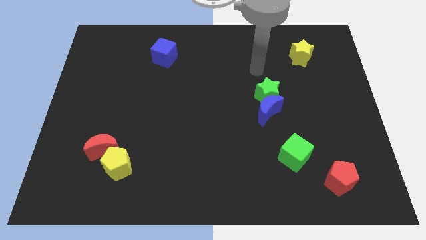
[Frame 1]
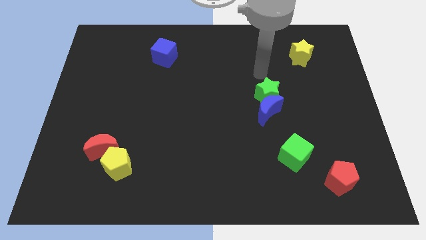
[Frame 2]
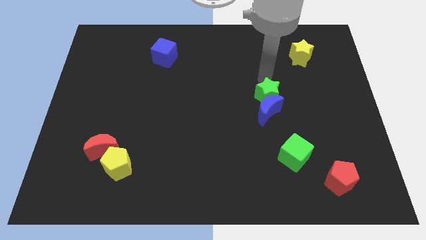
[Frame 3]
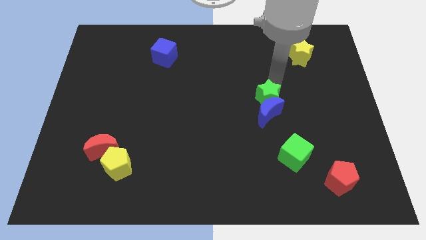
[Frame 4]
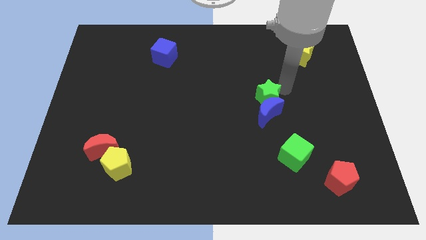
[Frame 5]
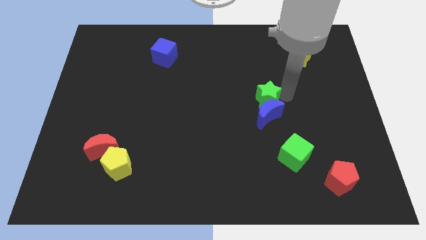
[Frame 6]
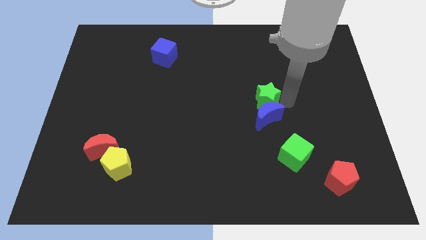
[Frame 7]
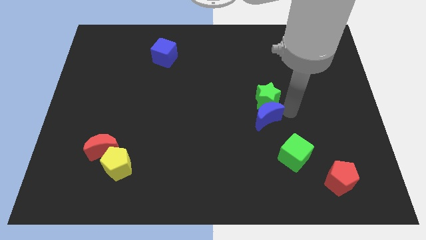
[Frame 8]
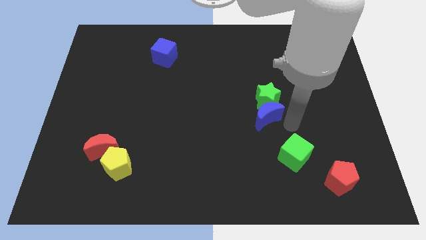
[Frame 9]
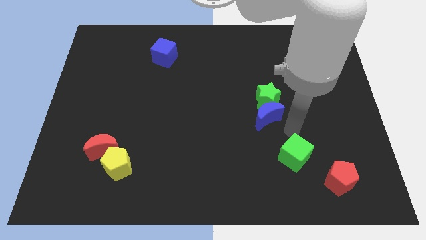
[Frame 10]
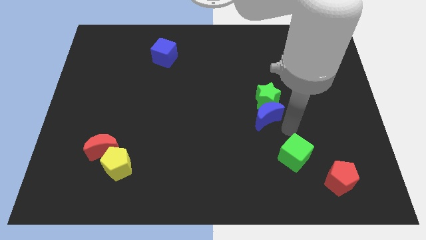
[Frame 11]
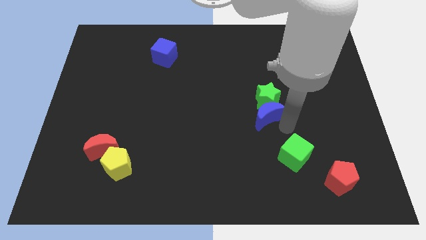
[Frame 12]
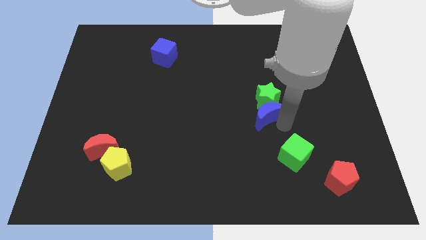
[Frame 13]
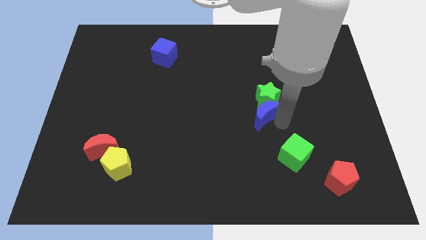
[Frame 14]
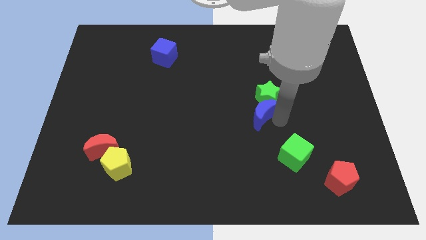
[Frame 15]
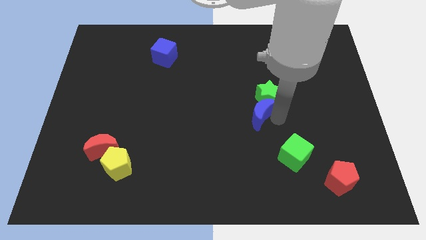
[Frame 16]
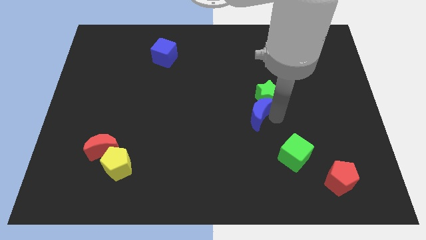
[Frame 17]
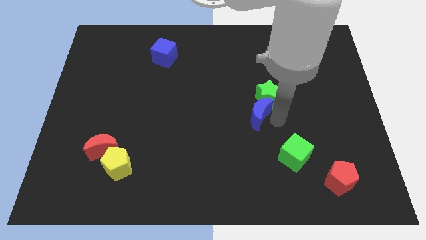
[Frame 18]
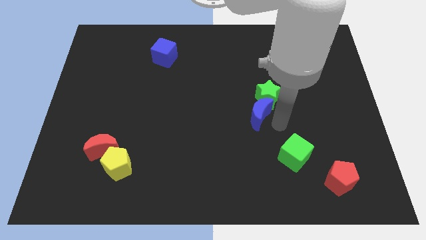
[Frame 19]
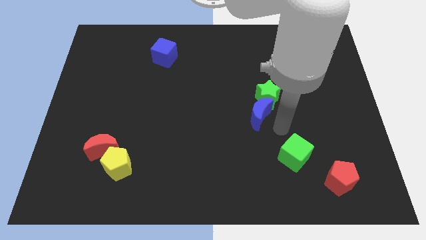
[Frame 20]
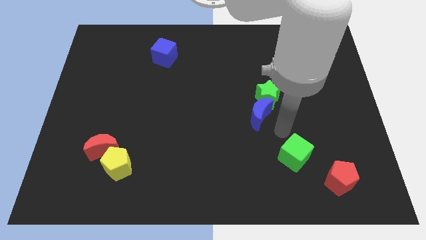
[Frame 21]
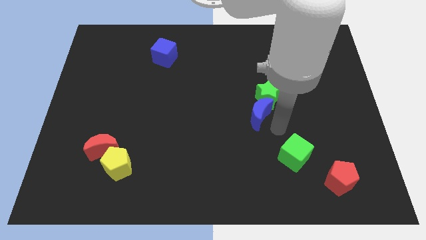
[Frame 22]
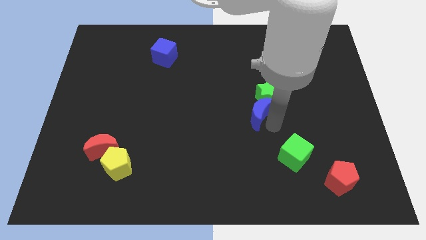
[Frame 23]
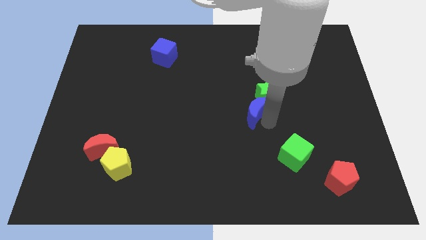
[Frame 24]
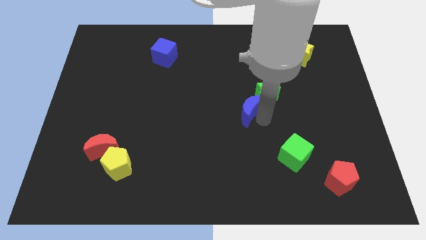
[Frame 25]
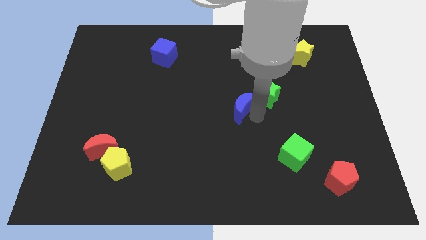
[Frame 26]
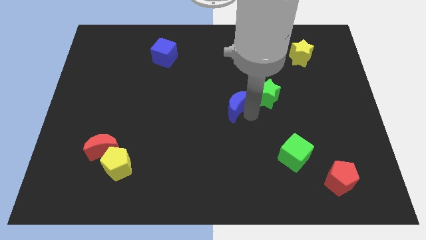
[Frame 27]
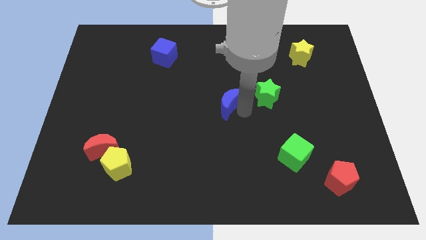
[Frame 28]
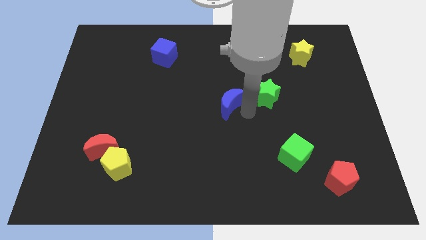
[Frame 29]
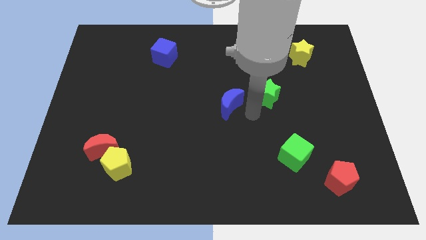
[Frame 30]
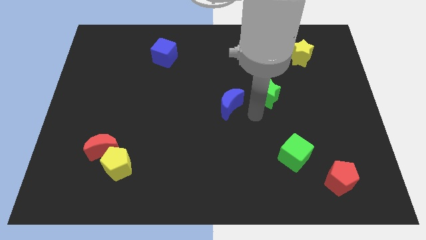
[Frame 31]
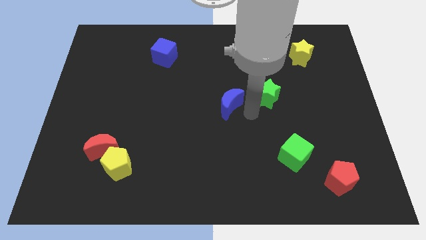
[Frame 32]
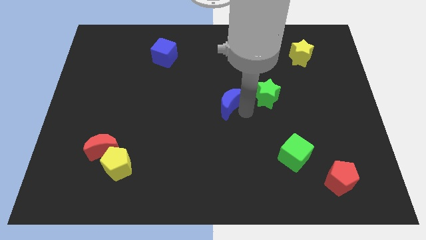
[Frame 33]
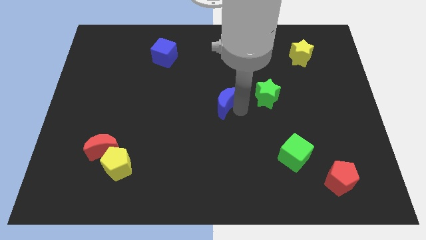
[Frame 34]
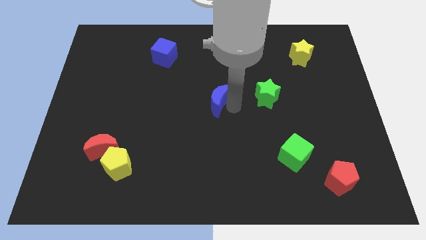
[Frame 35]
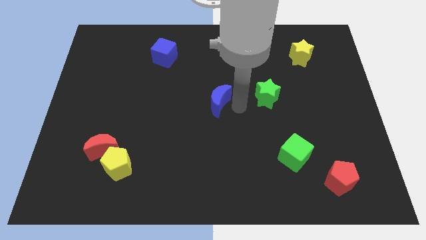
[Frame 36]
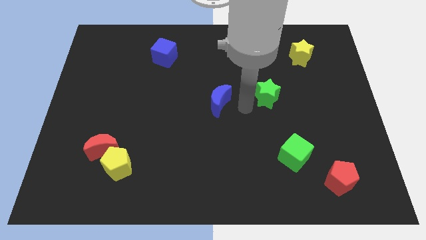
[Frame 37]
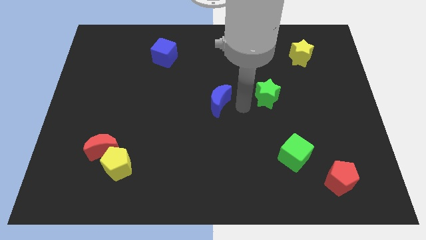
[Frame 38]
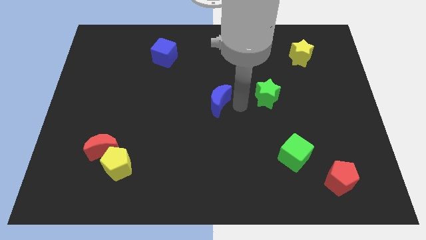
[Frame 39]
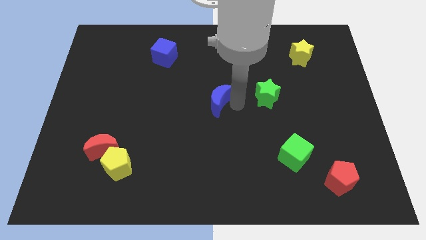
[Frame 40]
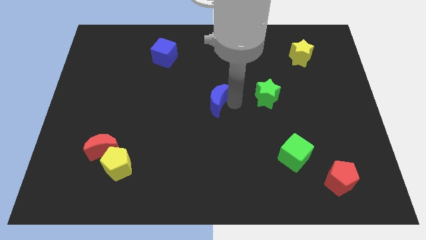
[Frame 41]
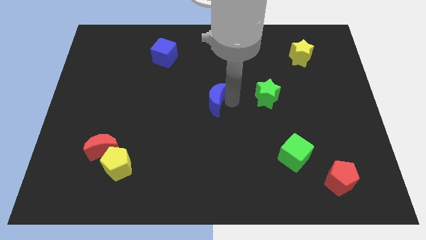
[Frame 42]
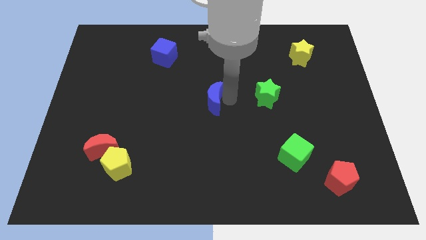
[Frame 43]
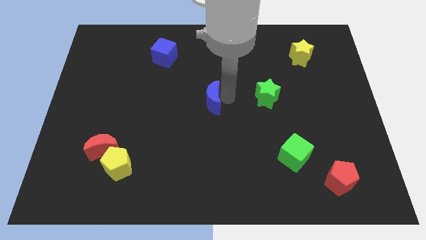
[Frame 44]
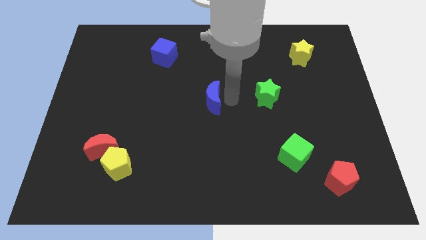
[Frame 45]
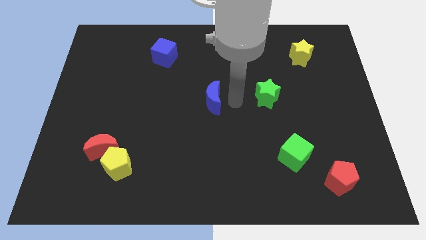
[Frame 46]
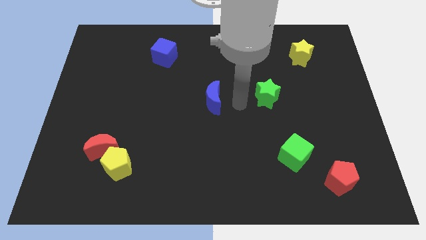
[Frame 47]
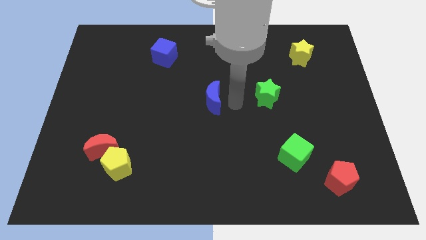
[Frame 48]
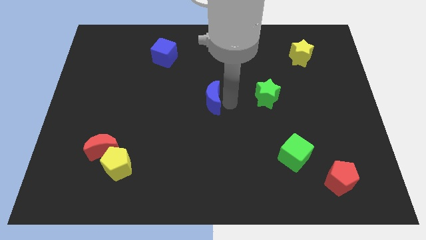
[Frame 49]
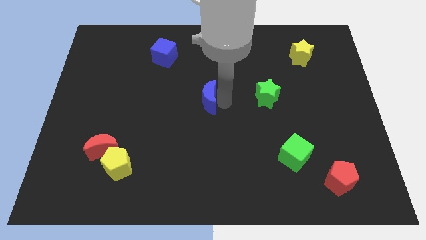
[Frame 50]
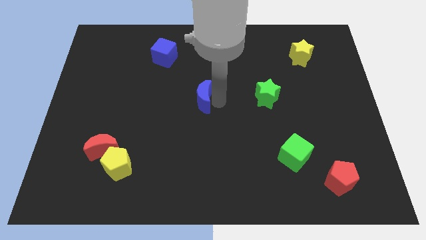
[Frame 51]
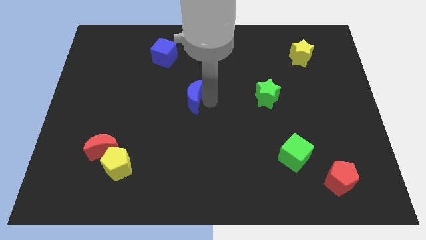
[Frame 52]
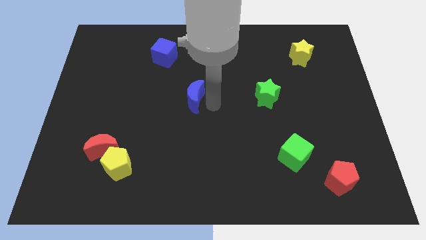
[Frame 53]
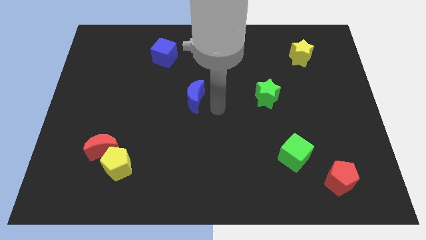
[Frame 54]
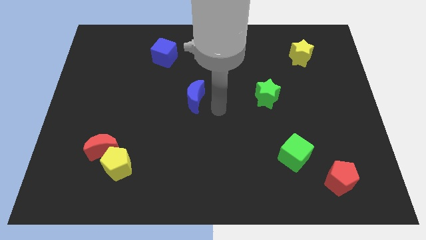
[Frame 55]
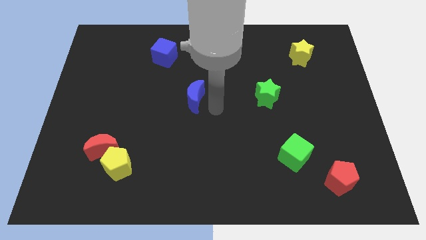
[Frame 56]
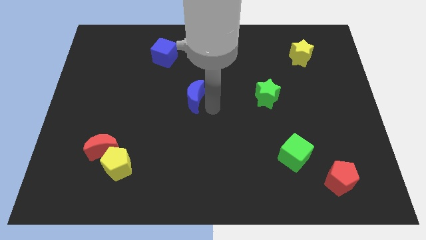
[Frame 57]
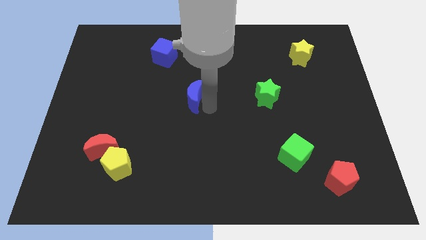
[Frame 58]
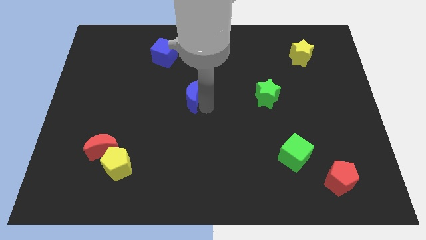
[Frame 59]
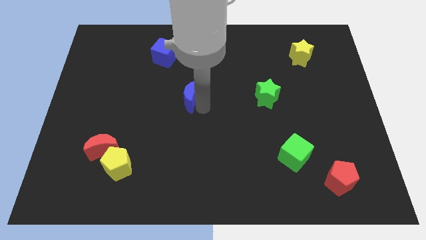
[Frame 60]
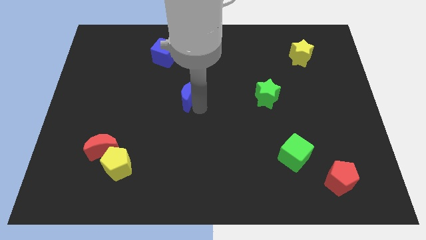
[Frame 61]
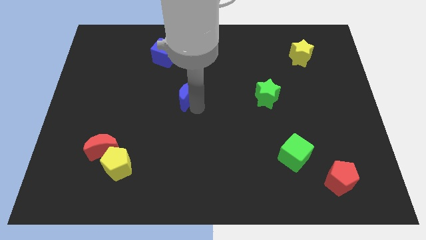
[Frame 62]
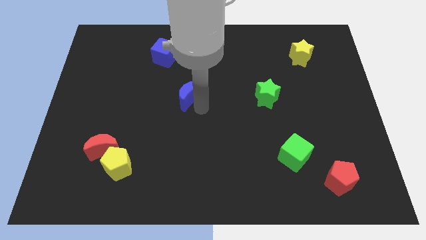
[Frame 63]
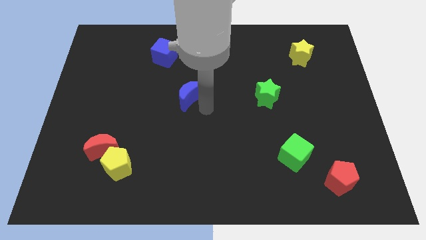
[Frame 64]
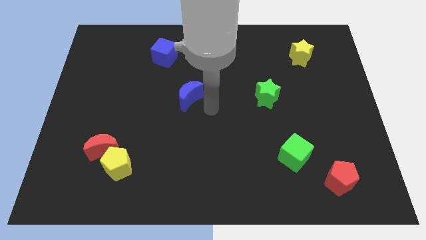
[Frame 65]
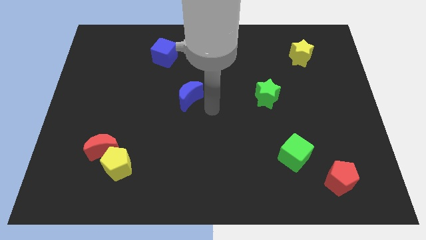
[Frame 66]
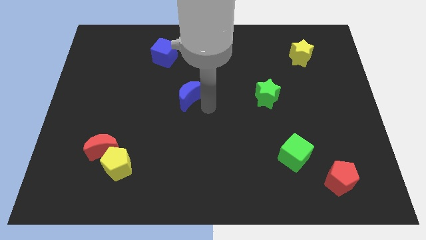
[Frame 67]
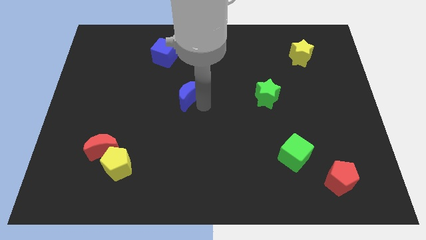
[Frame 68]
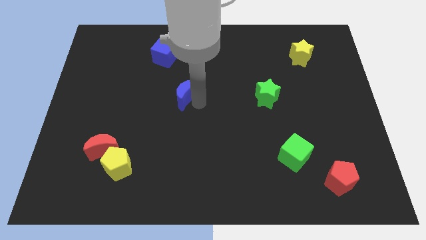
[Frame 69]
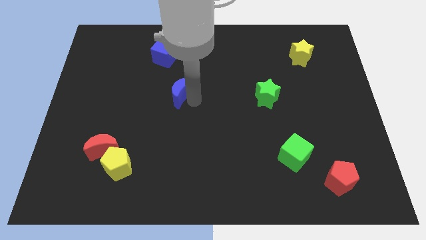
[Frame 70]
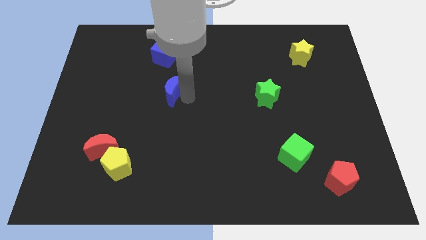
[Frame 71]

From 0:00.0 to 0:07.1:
slide the blue moon to the bottom of the blue cube
